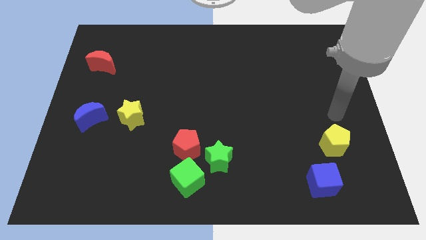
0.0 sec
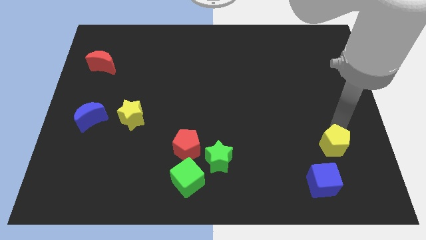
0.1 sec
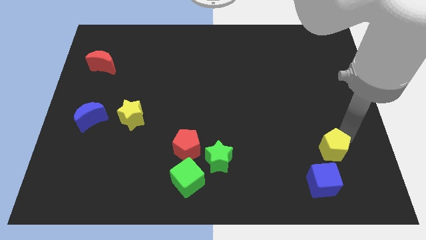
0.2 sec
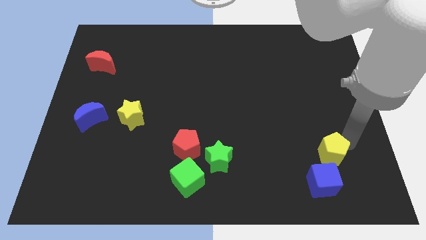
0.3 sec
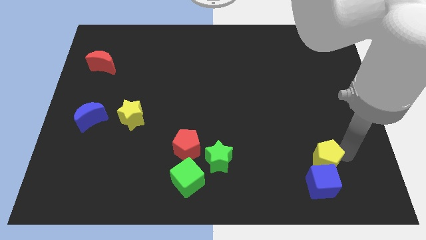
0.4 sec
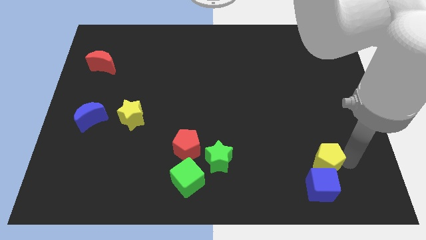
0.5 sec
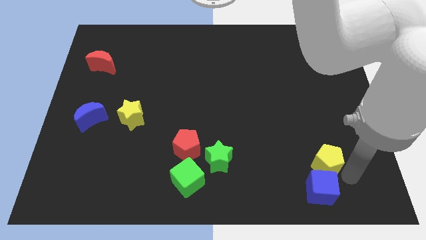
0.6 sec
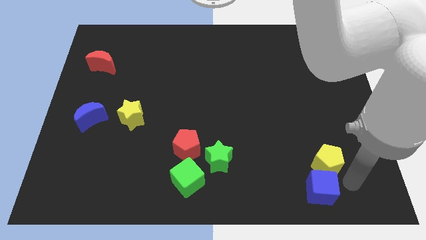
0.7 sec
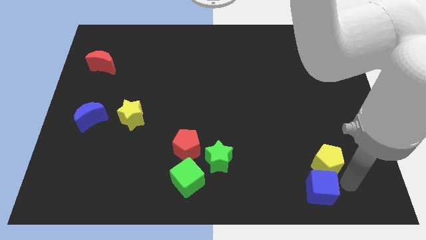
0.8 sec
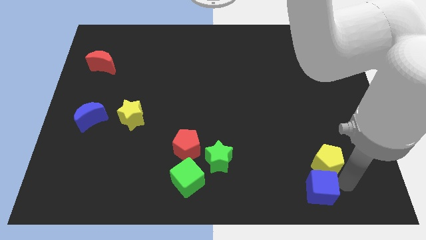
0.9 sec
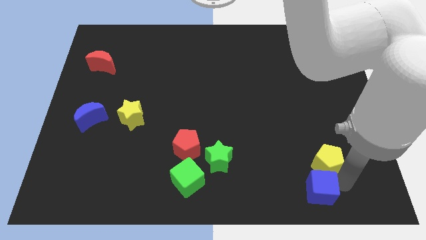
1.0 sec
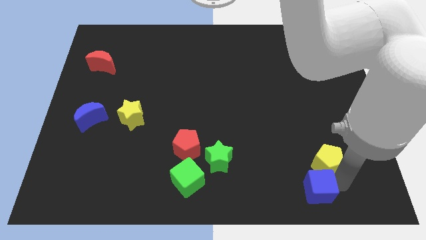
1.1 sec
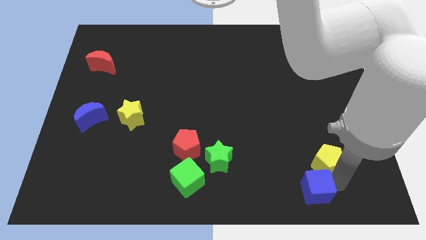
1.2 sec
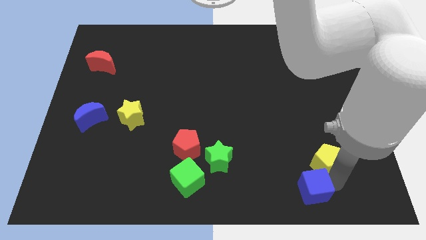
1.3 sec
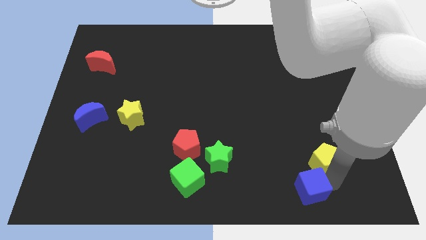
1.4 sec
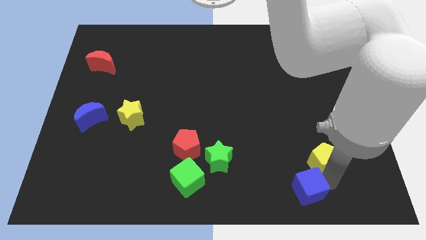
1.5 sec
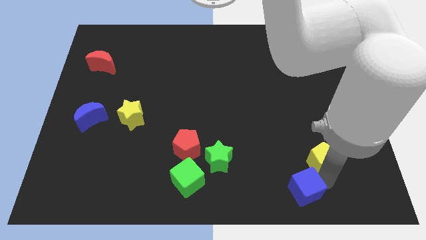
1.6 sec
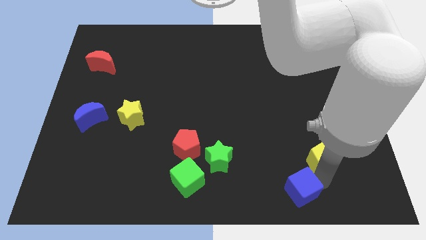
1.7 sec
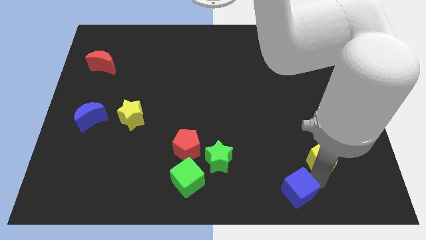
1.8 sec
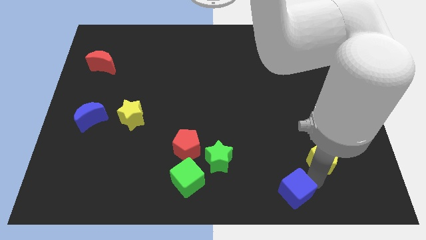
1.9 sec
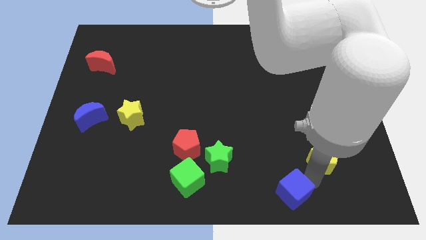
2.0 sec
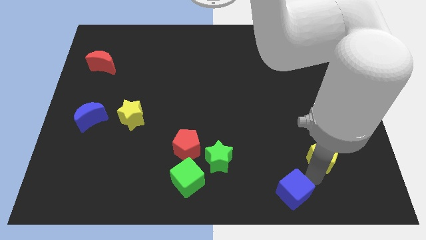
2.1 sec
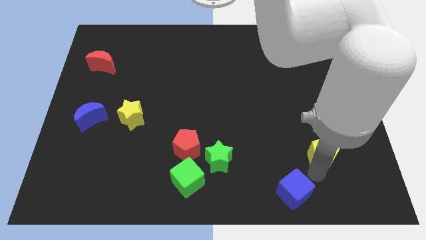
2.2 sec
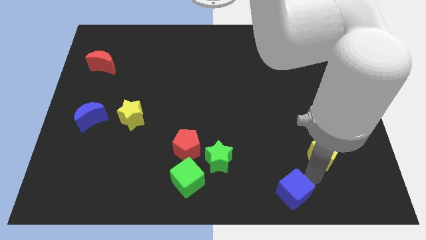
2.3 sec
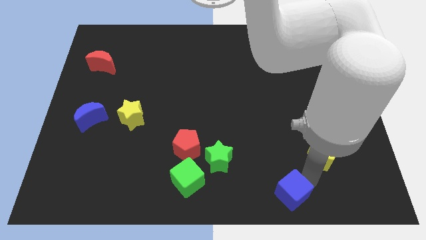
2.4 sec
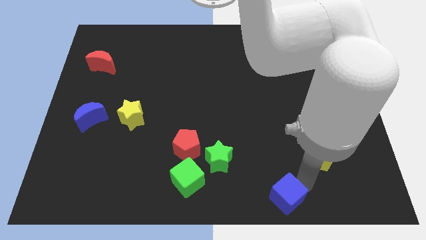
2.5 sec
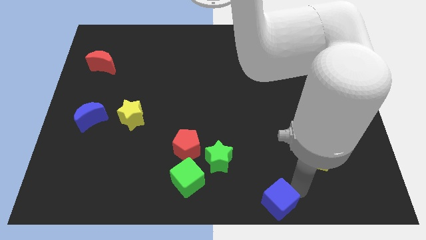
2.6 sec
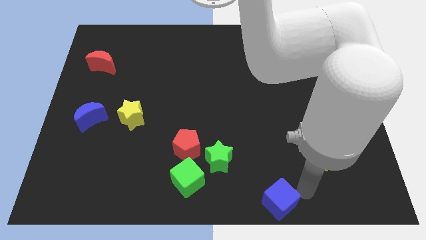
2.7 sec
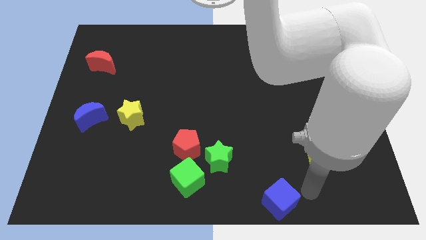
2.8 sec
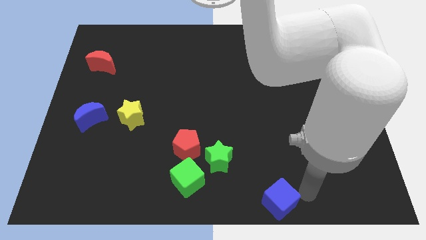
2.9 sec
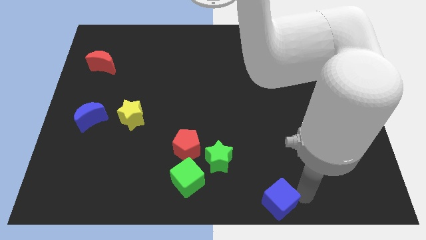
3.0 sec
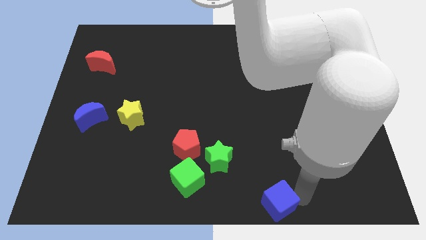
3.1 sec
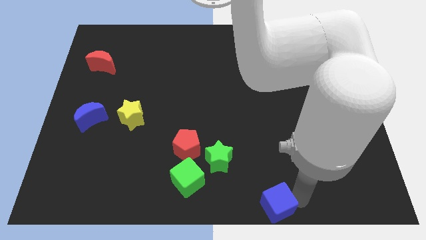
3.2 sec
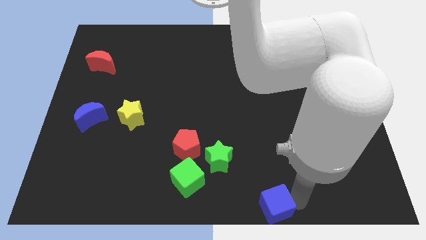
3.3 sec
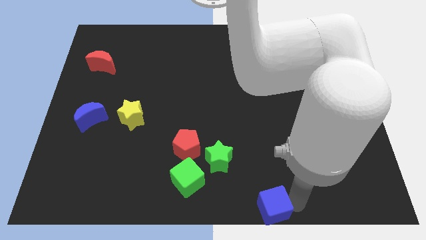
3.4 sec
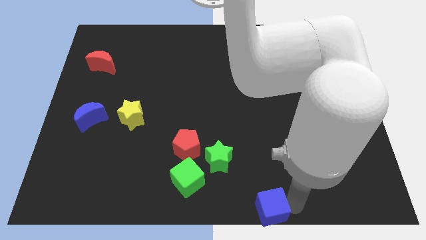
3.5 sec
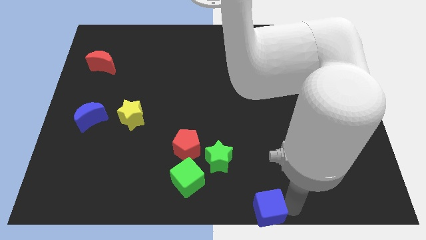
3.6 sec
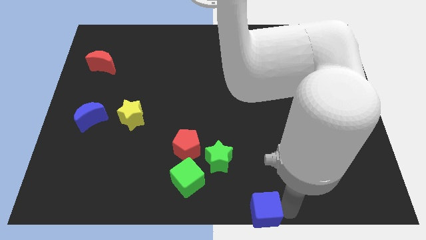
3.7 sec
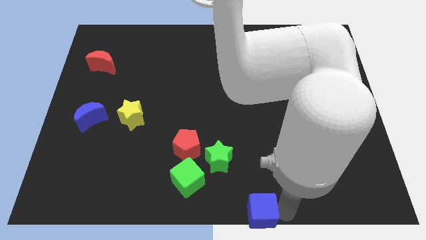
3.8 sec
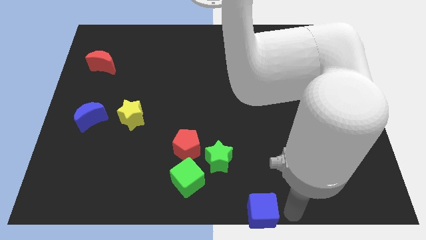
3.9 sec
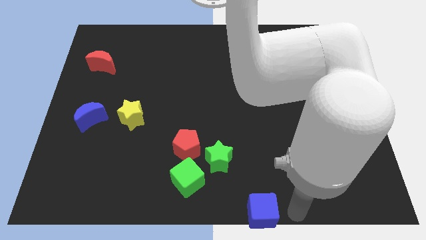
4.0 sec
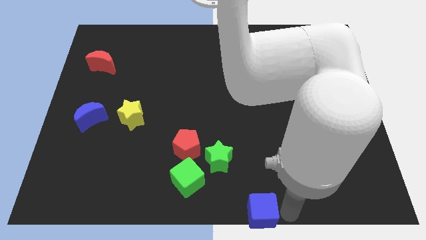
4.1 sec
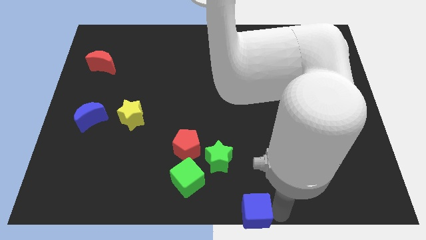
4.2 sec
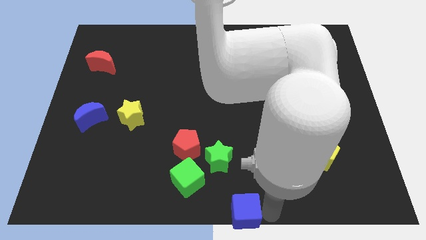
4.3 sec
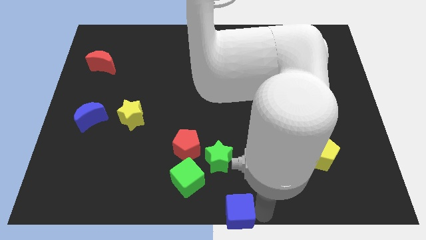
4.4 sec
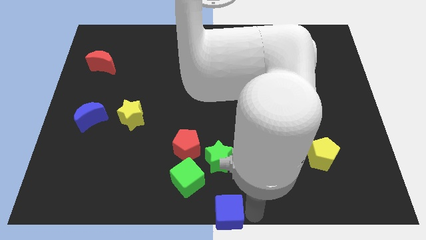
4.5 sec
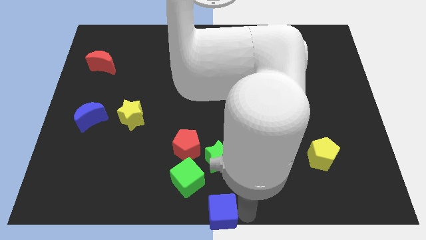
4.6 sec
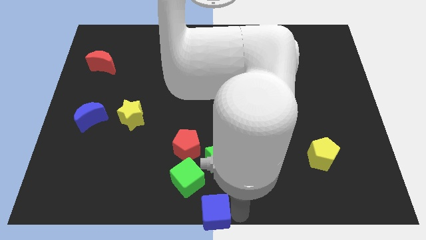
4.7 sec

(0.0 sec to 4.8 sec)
move the blue cube to the left

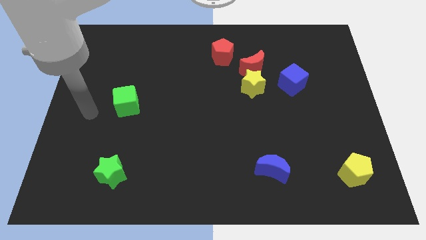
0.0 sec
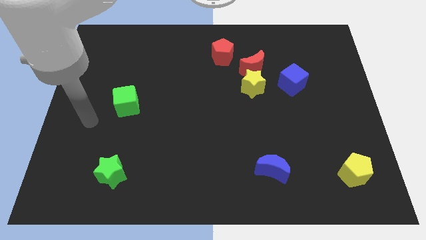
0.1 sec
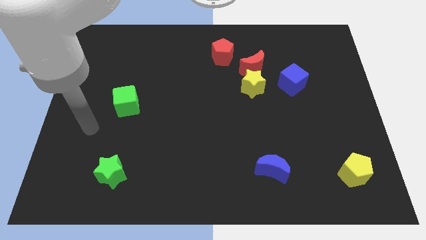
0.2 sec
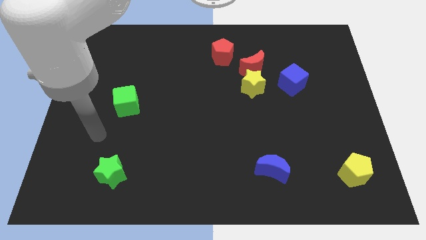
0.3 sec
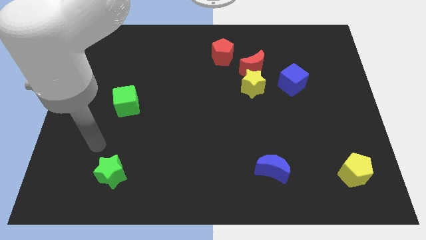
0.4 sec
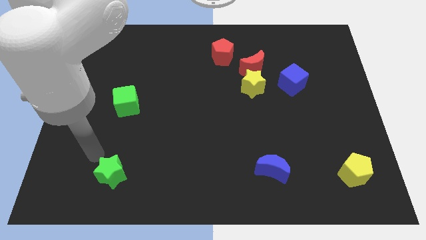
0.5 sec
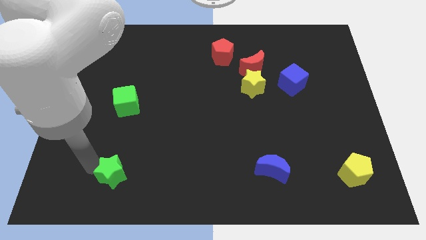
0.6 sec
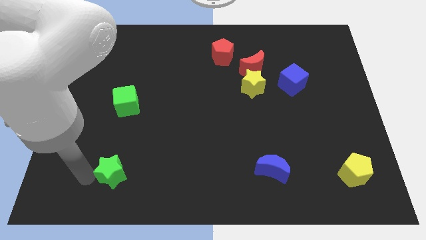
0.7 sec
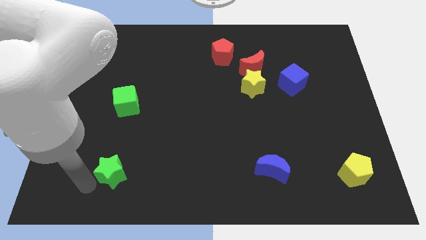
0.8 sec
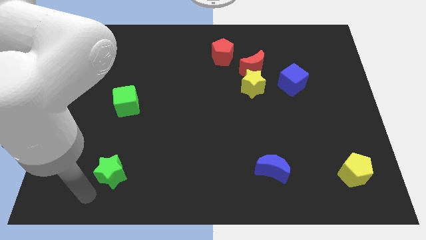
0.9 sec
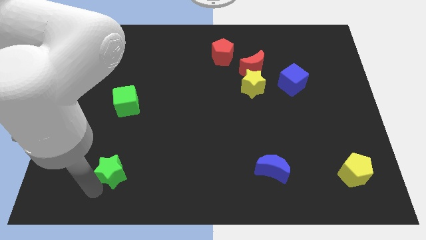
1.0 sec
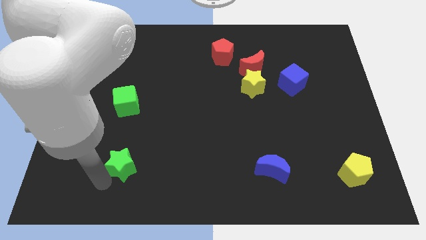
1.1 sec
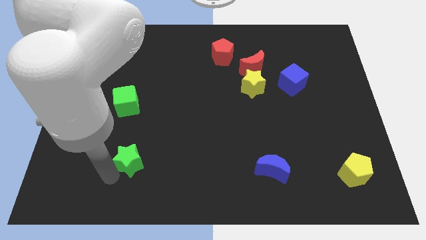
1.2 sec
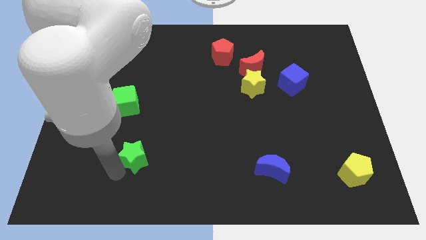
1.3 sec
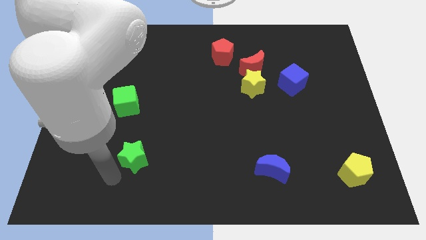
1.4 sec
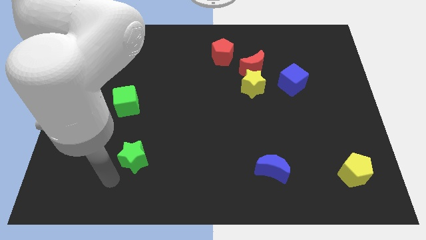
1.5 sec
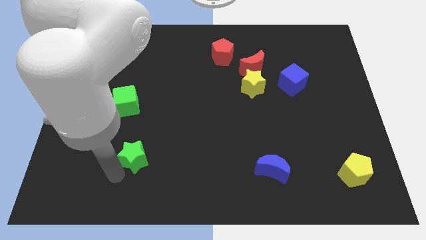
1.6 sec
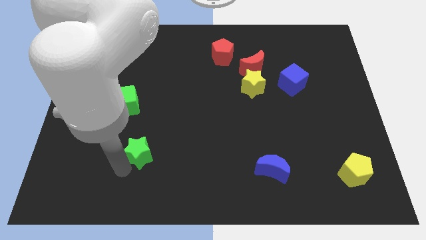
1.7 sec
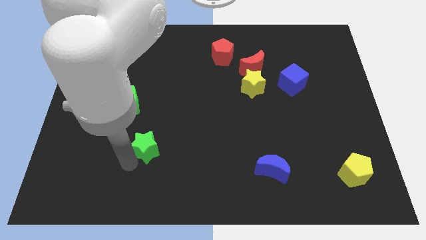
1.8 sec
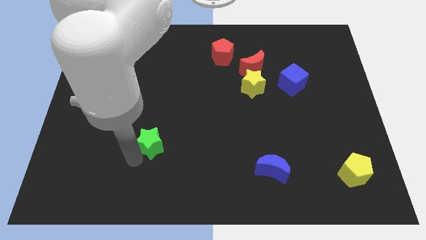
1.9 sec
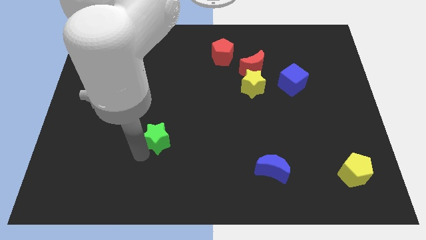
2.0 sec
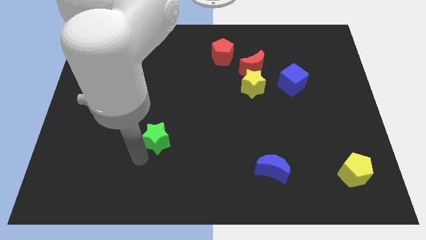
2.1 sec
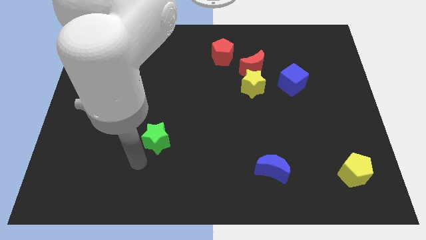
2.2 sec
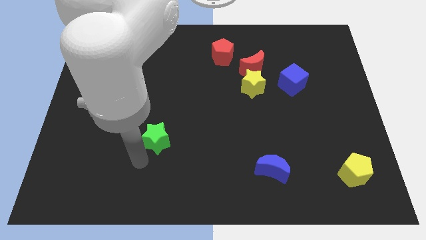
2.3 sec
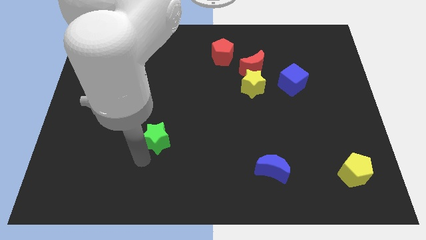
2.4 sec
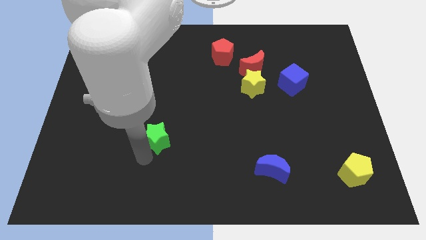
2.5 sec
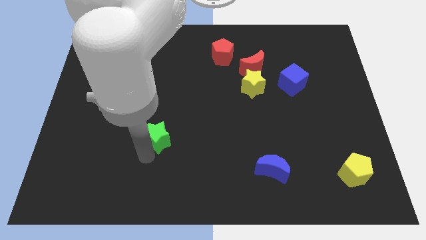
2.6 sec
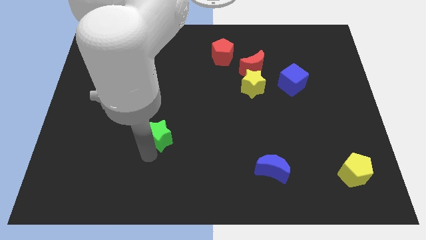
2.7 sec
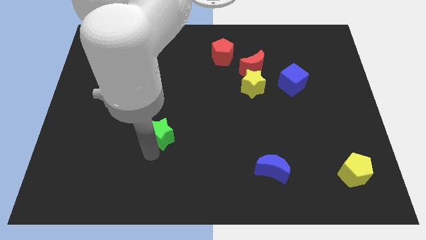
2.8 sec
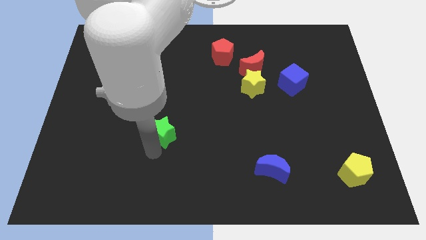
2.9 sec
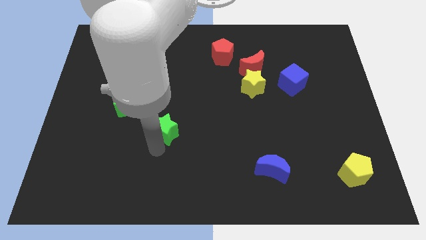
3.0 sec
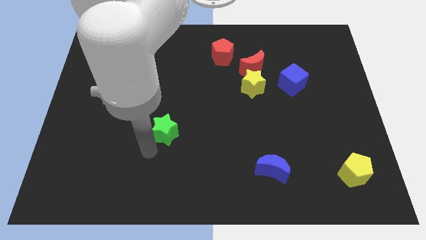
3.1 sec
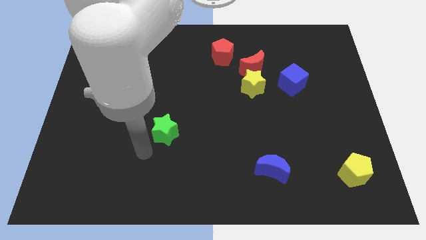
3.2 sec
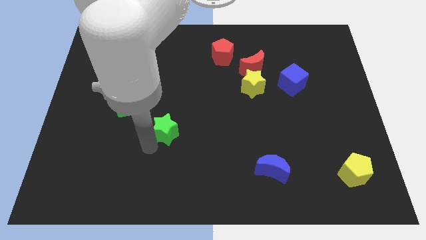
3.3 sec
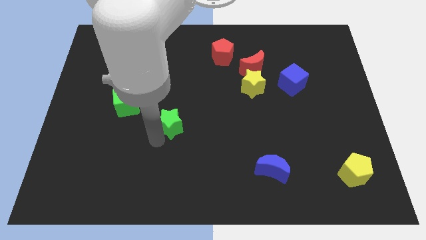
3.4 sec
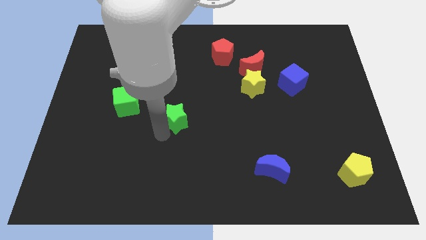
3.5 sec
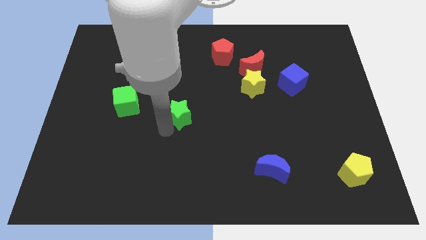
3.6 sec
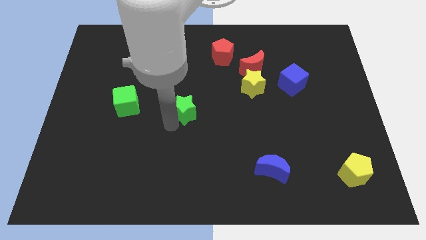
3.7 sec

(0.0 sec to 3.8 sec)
slide the green star diagonally up and right
